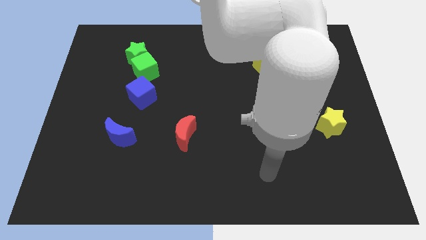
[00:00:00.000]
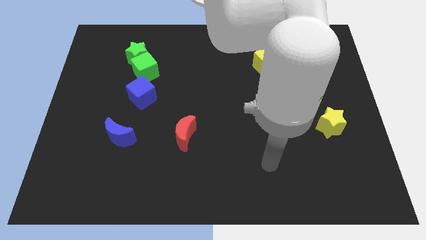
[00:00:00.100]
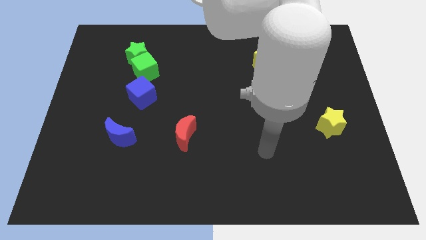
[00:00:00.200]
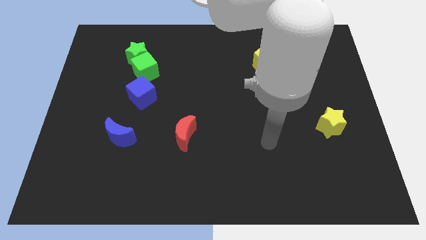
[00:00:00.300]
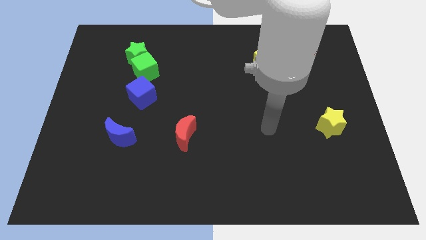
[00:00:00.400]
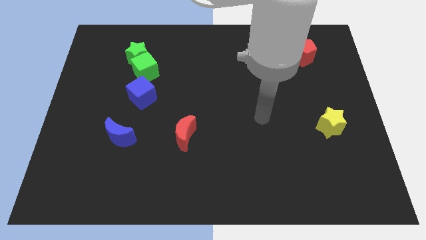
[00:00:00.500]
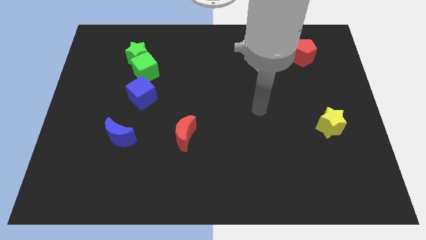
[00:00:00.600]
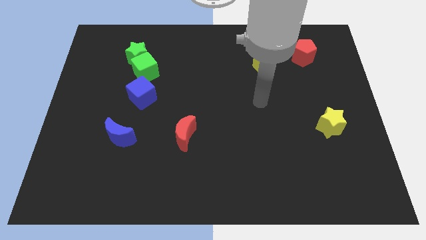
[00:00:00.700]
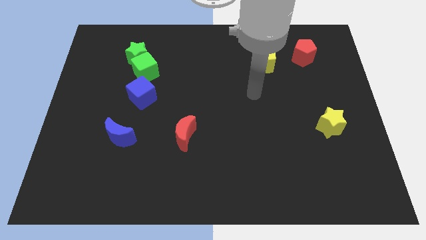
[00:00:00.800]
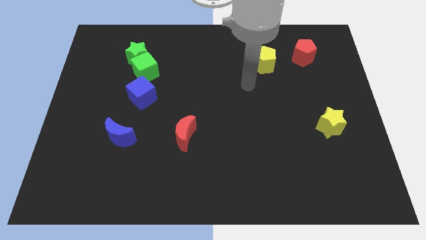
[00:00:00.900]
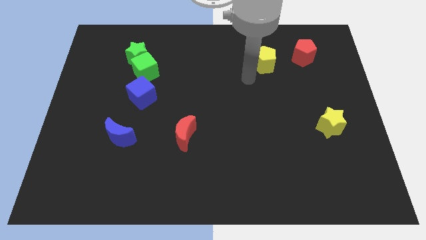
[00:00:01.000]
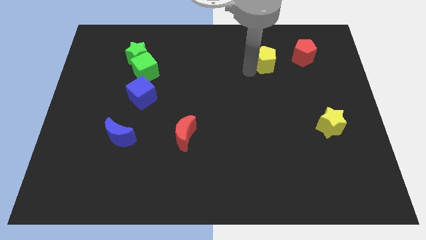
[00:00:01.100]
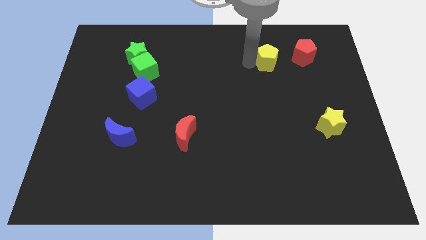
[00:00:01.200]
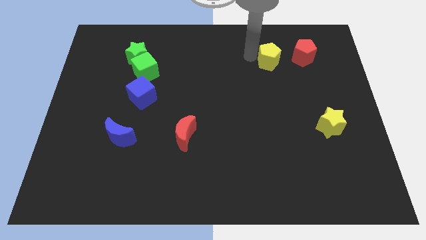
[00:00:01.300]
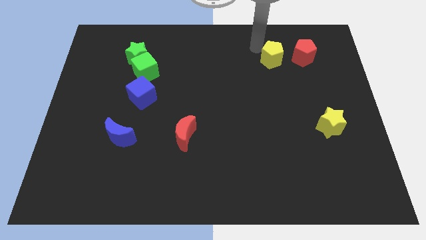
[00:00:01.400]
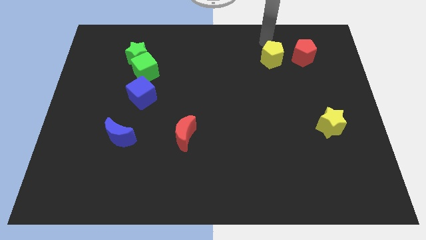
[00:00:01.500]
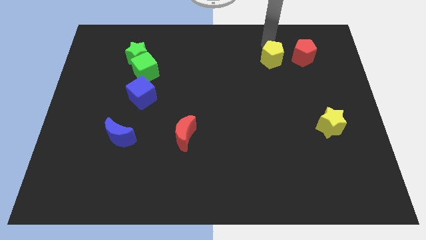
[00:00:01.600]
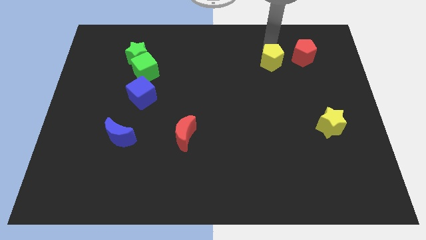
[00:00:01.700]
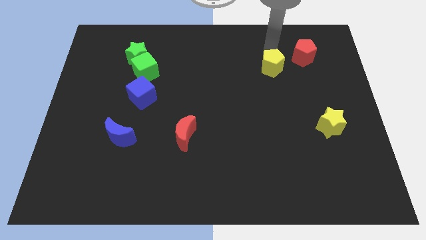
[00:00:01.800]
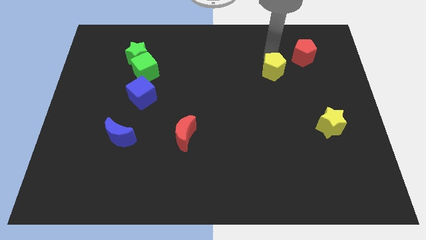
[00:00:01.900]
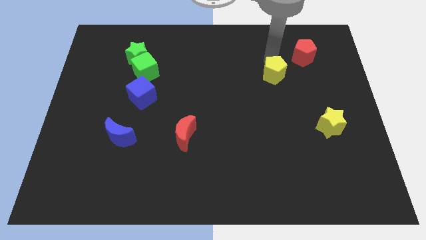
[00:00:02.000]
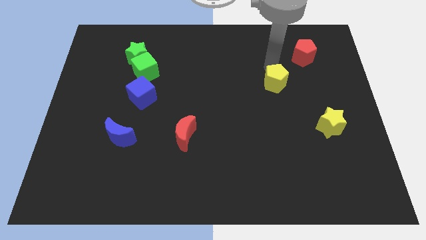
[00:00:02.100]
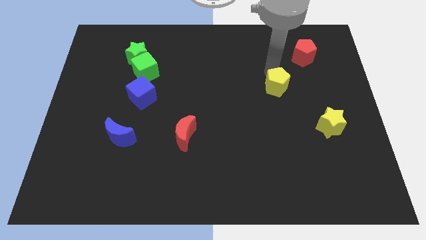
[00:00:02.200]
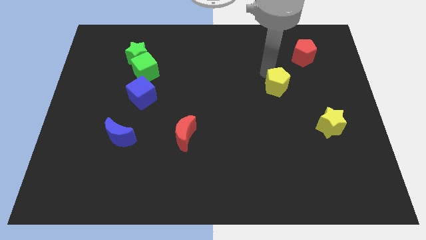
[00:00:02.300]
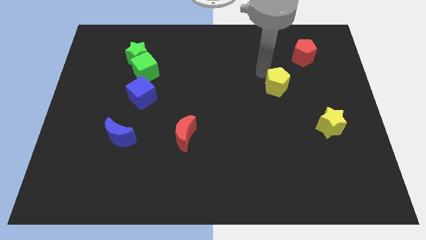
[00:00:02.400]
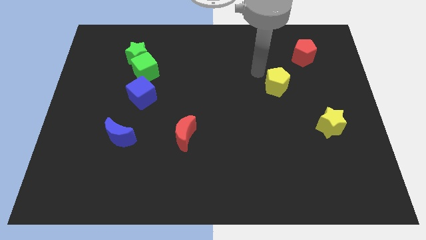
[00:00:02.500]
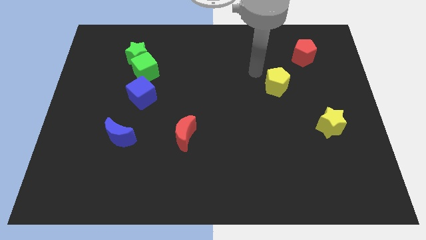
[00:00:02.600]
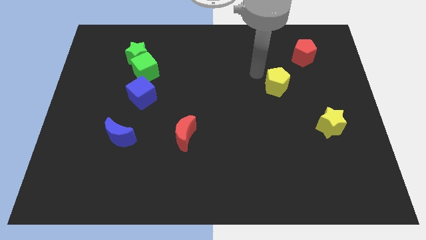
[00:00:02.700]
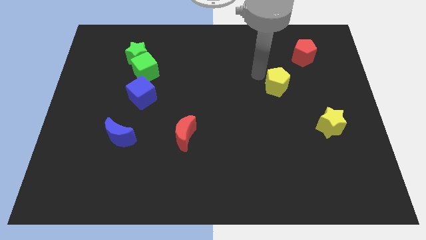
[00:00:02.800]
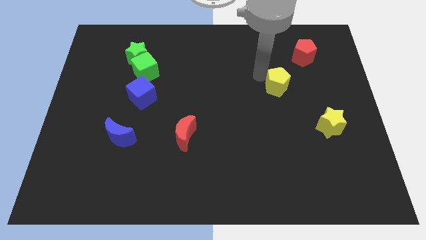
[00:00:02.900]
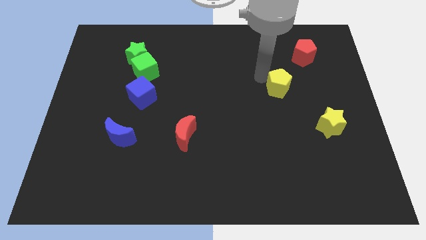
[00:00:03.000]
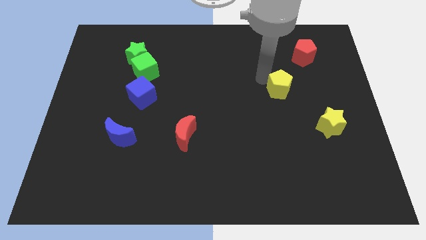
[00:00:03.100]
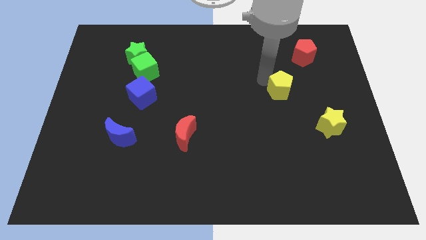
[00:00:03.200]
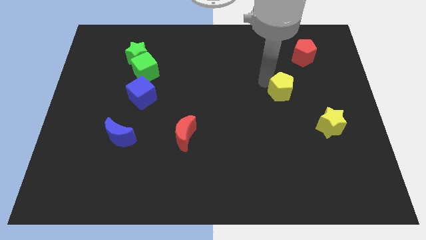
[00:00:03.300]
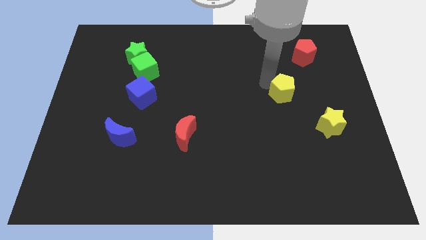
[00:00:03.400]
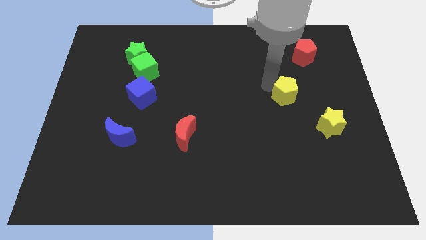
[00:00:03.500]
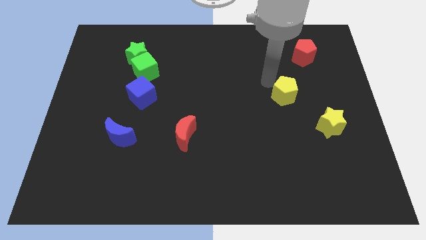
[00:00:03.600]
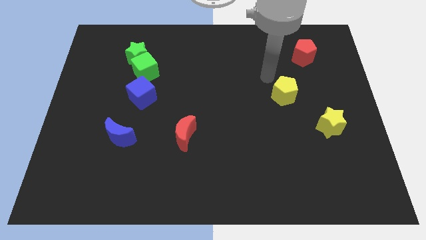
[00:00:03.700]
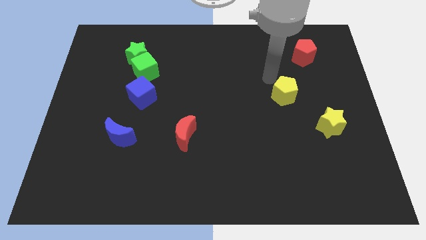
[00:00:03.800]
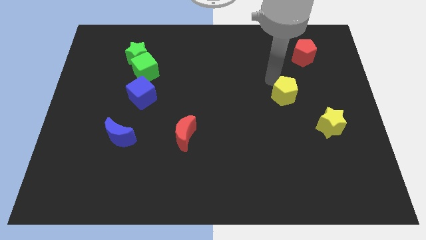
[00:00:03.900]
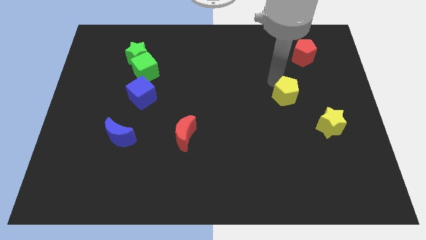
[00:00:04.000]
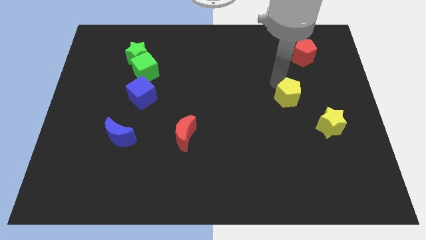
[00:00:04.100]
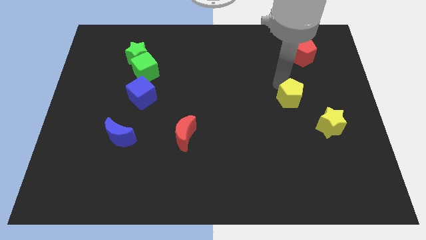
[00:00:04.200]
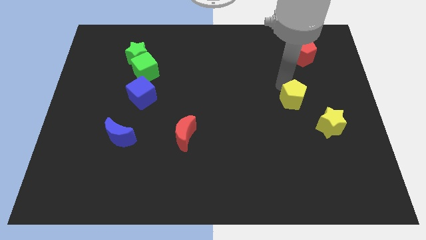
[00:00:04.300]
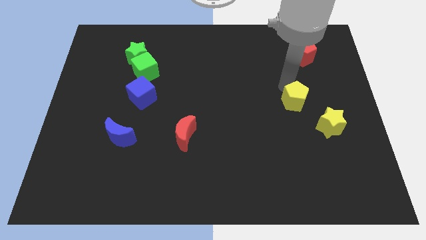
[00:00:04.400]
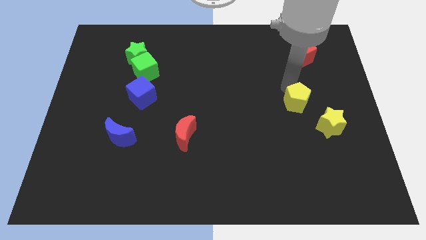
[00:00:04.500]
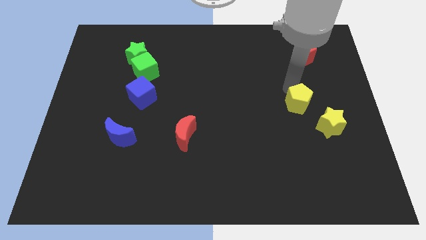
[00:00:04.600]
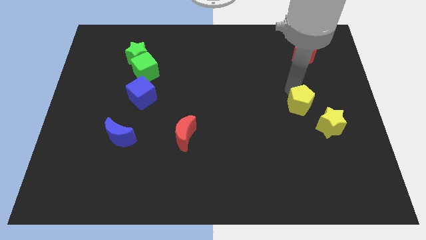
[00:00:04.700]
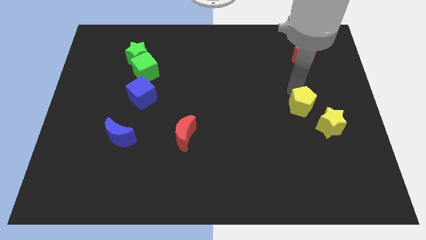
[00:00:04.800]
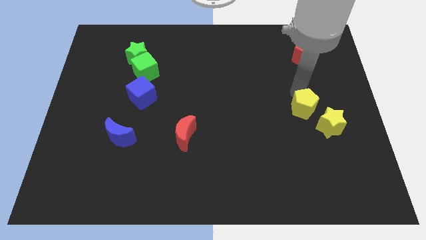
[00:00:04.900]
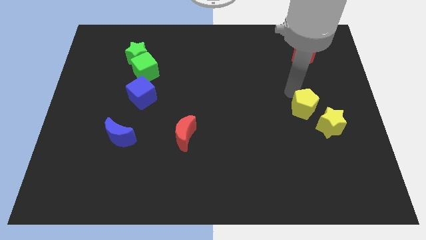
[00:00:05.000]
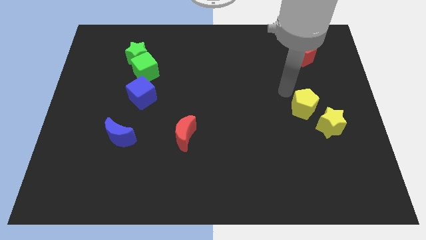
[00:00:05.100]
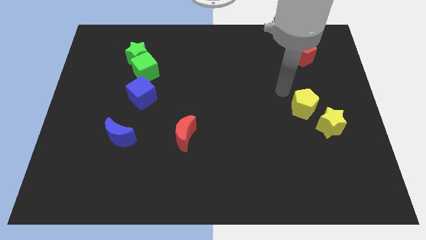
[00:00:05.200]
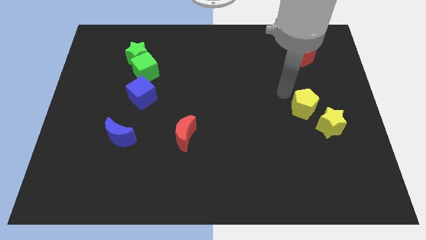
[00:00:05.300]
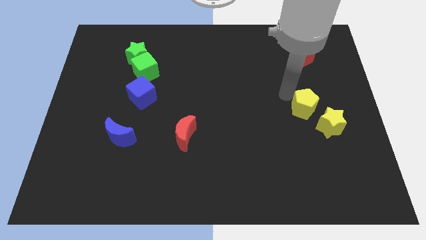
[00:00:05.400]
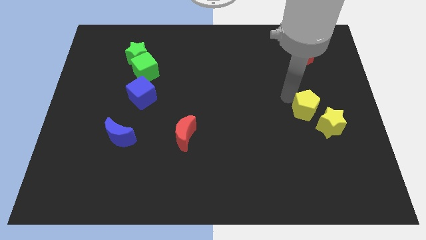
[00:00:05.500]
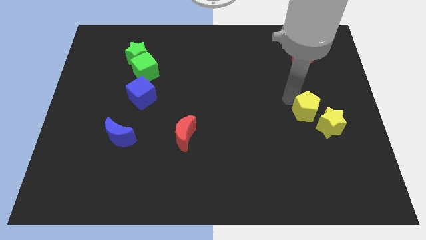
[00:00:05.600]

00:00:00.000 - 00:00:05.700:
push the yellow pentagon next to the yellow star

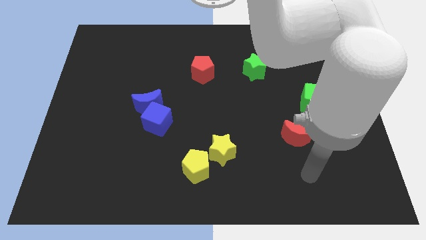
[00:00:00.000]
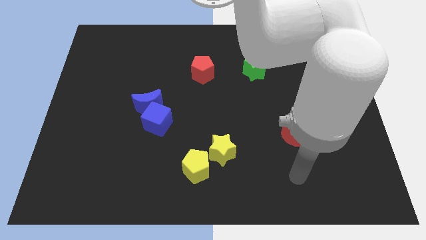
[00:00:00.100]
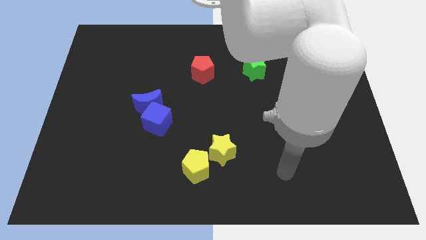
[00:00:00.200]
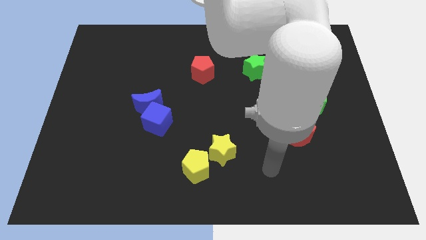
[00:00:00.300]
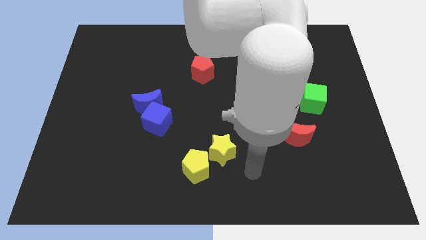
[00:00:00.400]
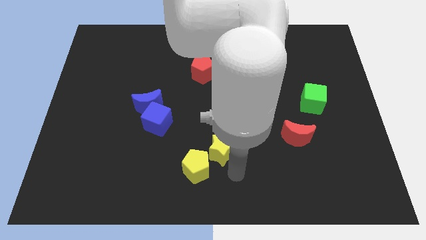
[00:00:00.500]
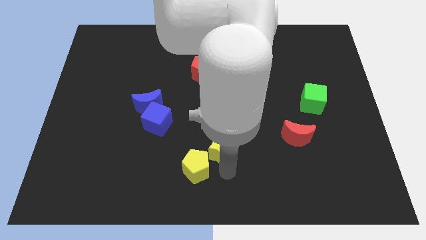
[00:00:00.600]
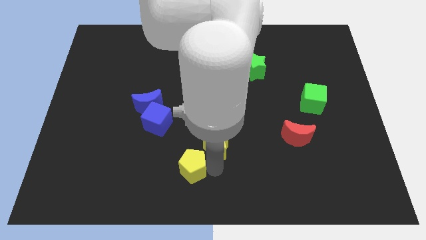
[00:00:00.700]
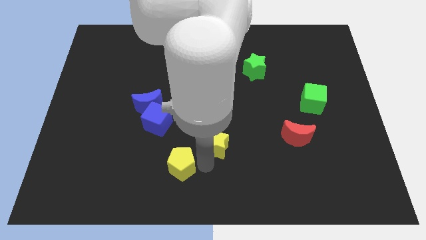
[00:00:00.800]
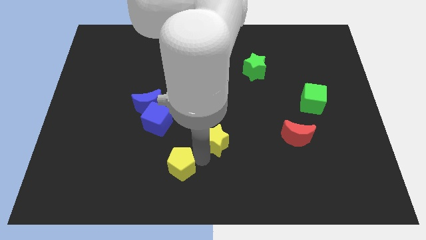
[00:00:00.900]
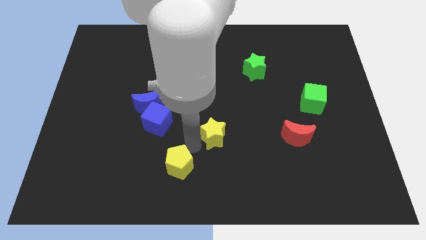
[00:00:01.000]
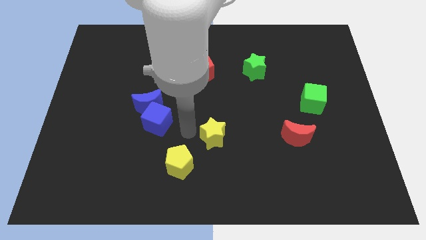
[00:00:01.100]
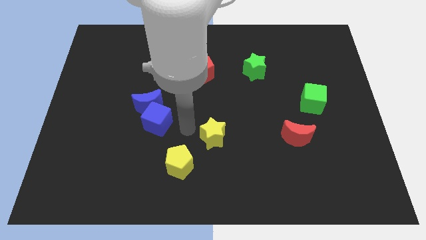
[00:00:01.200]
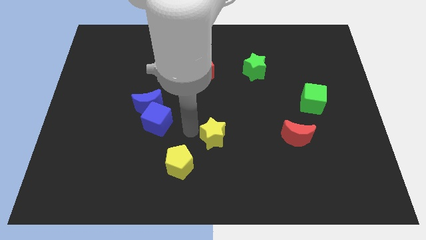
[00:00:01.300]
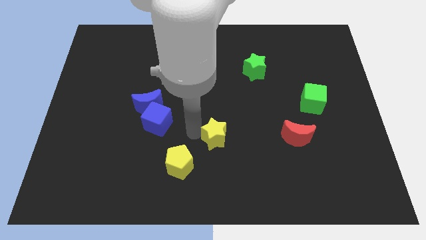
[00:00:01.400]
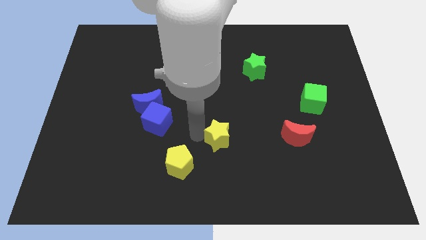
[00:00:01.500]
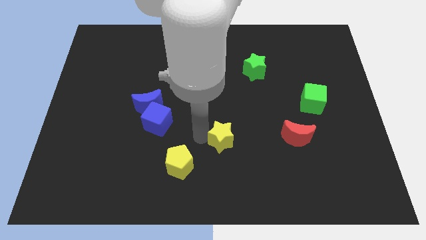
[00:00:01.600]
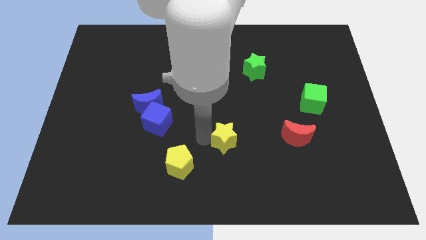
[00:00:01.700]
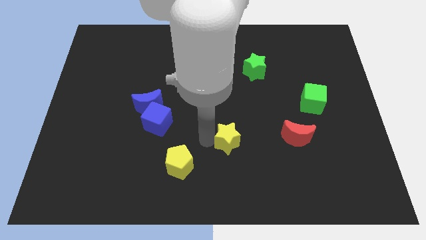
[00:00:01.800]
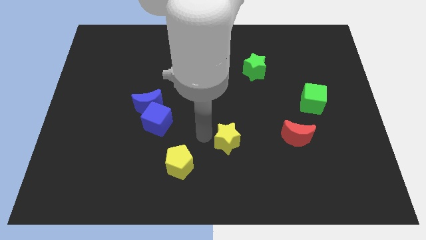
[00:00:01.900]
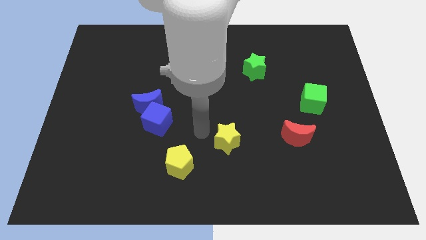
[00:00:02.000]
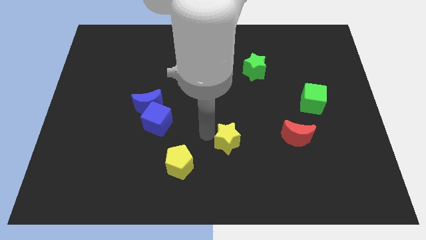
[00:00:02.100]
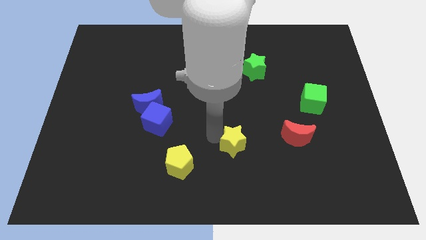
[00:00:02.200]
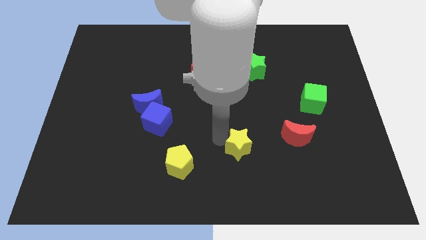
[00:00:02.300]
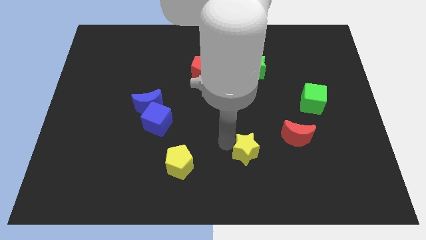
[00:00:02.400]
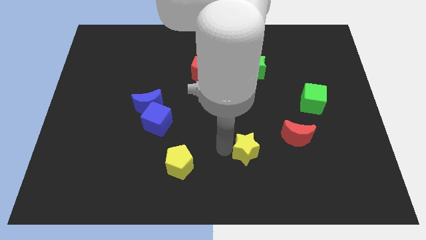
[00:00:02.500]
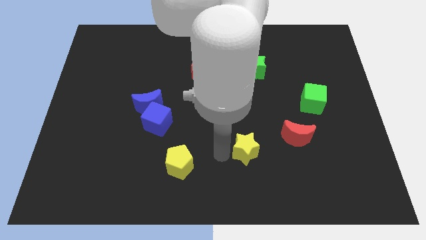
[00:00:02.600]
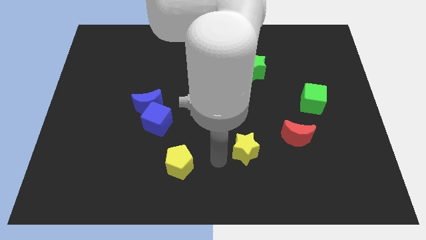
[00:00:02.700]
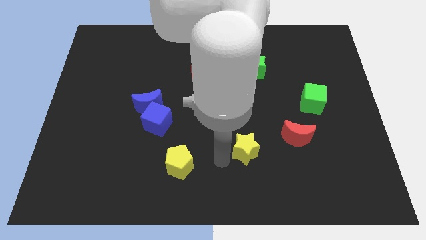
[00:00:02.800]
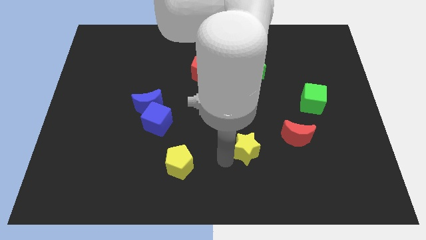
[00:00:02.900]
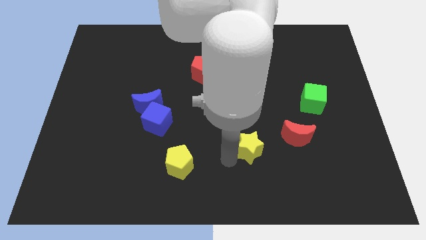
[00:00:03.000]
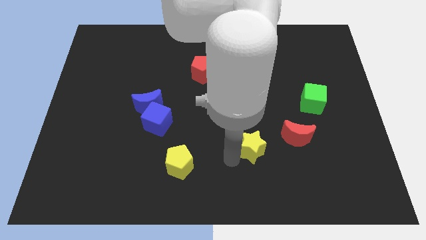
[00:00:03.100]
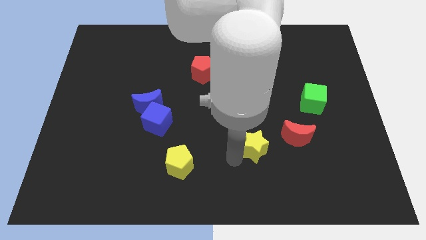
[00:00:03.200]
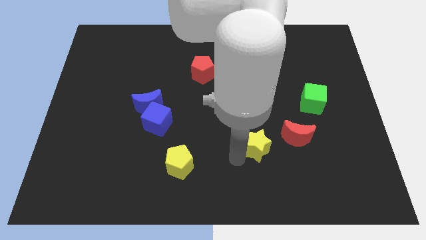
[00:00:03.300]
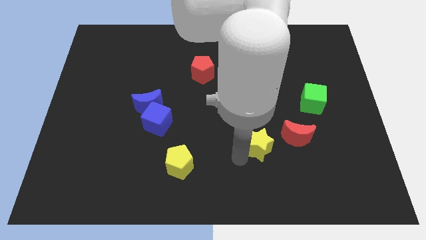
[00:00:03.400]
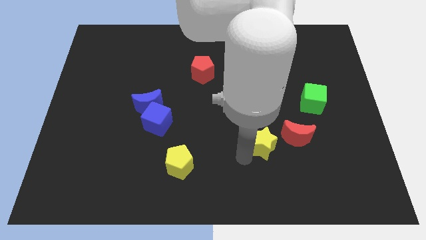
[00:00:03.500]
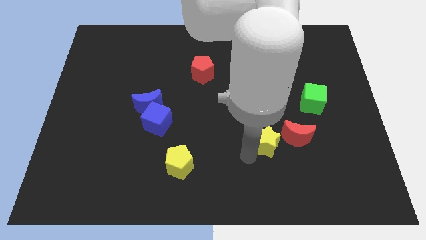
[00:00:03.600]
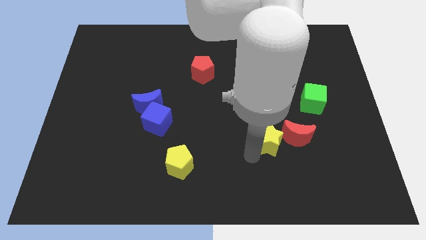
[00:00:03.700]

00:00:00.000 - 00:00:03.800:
put the yellow star towards the red moon
